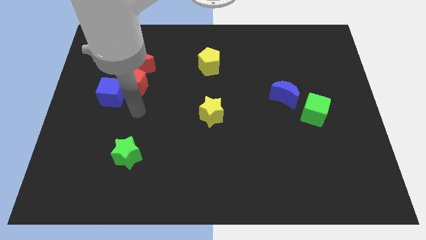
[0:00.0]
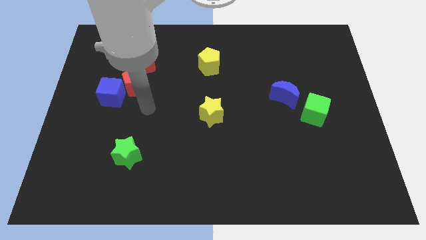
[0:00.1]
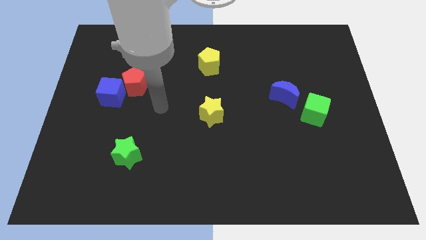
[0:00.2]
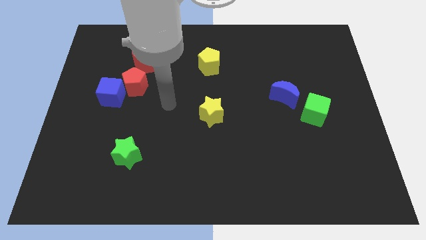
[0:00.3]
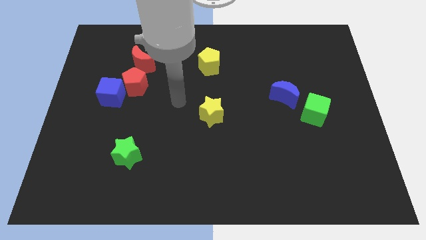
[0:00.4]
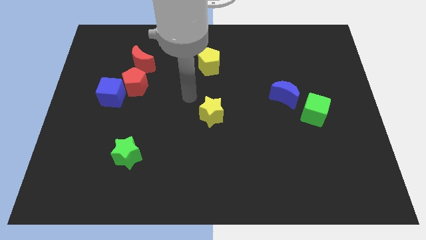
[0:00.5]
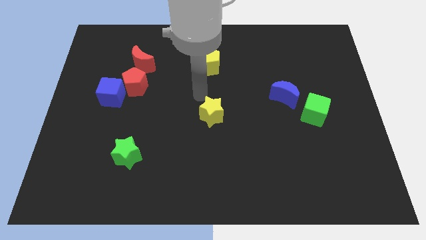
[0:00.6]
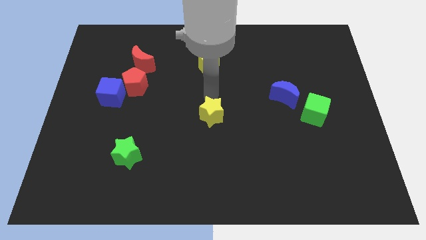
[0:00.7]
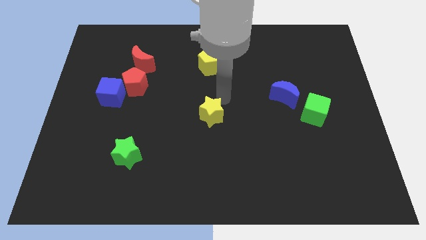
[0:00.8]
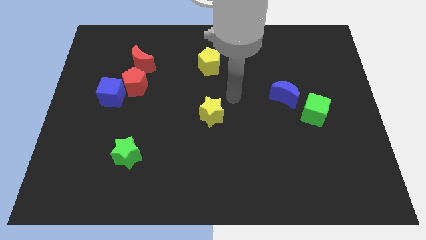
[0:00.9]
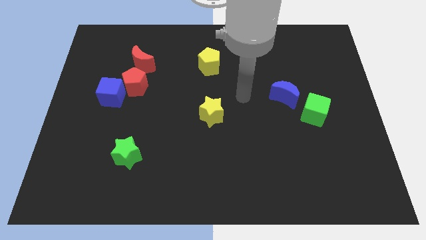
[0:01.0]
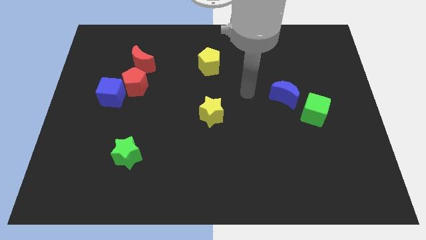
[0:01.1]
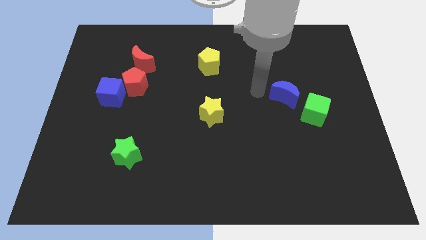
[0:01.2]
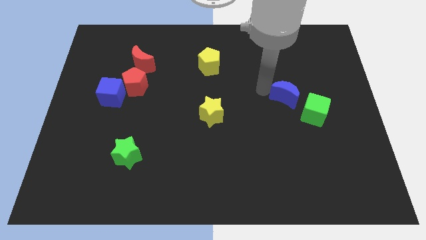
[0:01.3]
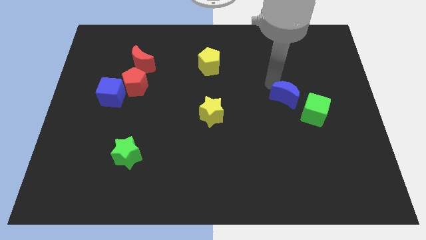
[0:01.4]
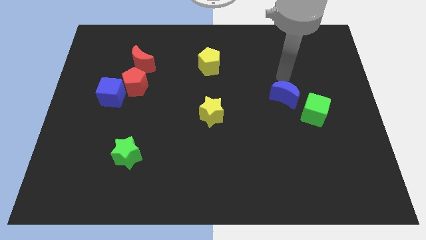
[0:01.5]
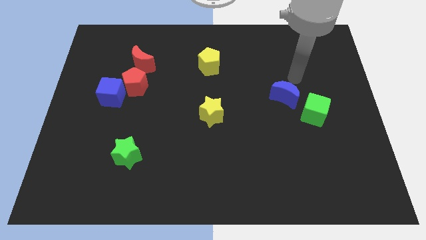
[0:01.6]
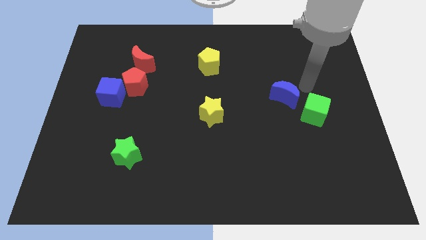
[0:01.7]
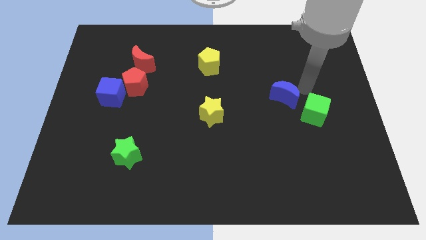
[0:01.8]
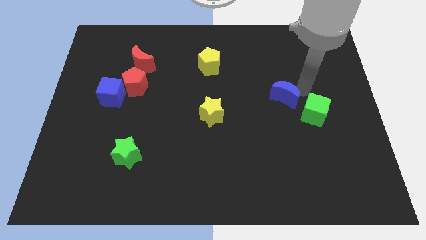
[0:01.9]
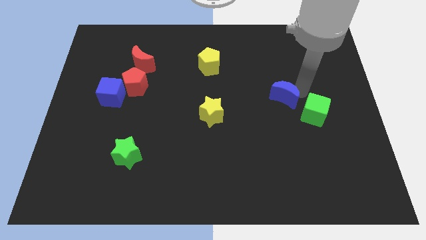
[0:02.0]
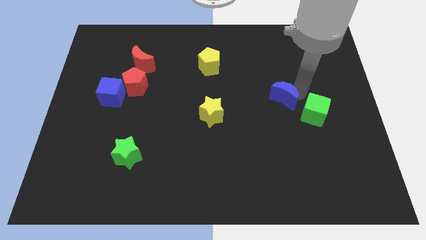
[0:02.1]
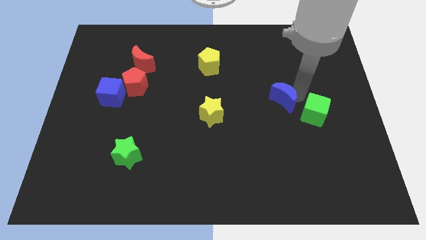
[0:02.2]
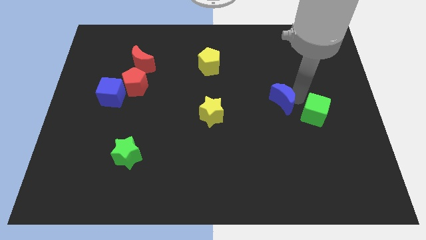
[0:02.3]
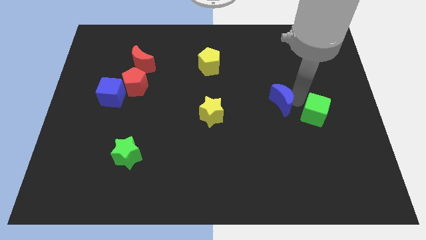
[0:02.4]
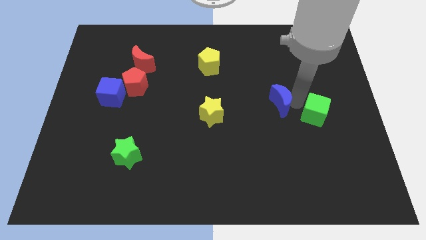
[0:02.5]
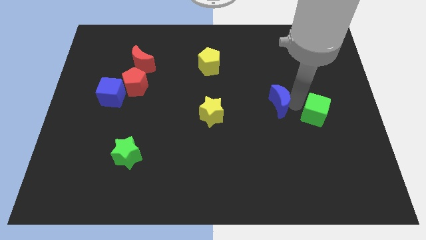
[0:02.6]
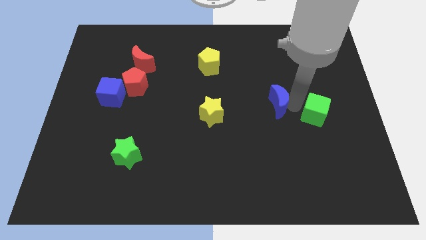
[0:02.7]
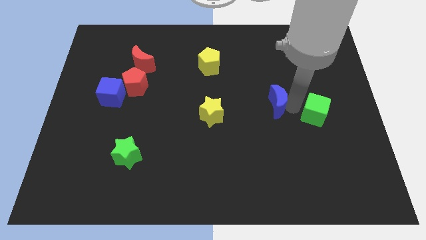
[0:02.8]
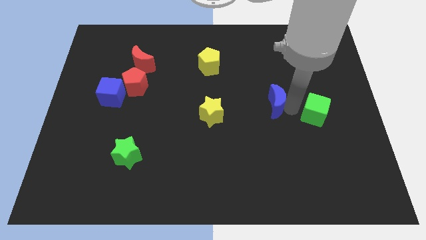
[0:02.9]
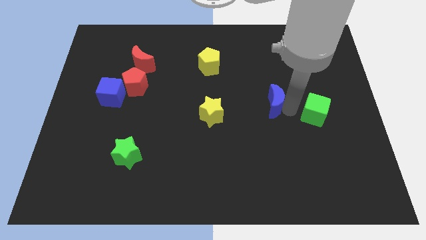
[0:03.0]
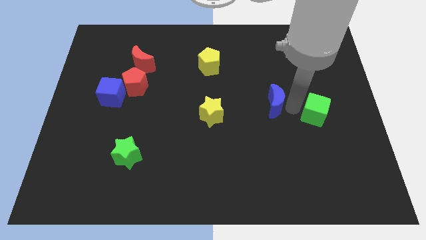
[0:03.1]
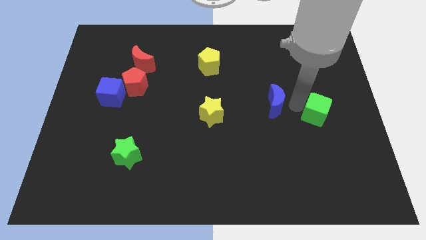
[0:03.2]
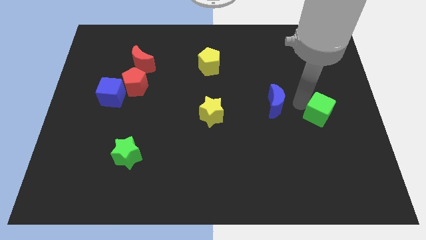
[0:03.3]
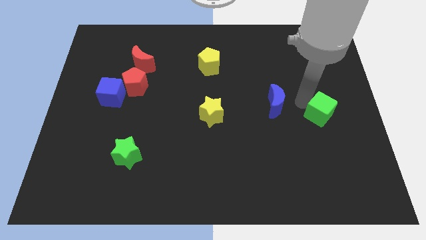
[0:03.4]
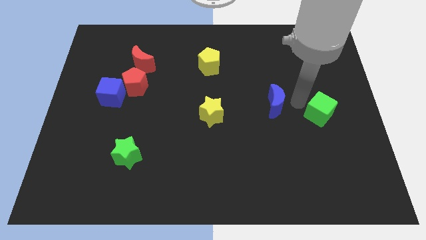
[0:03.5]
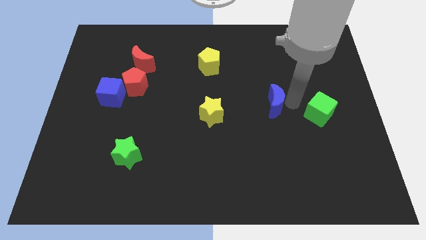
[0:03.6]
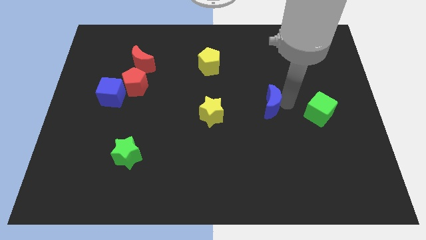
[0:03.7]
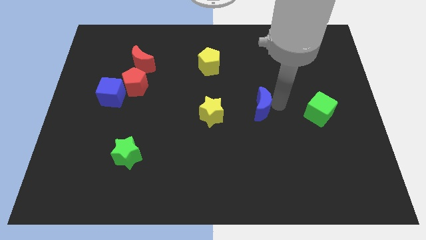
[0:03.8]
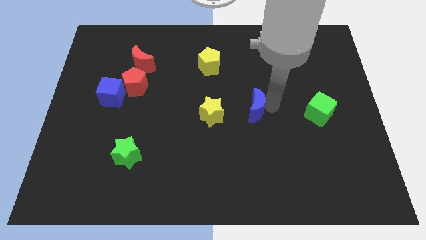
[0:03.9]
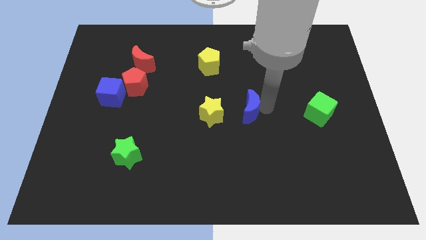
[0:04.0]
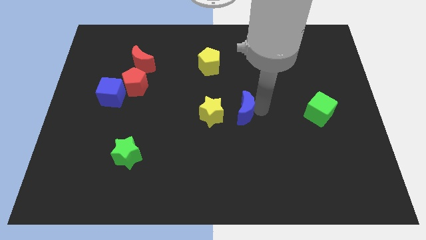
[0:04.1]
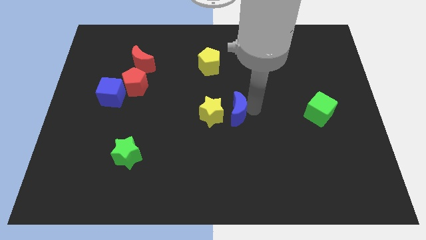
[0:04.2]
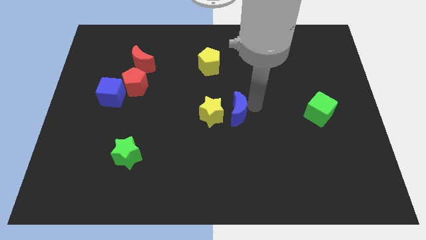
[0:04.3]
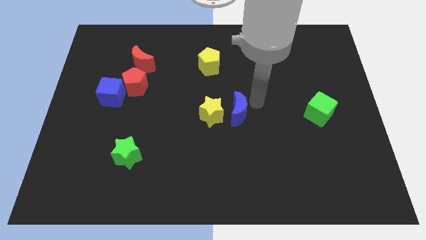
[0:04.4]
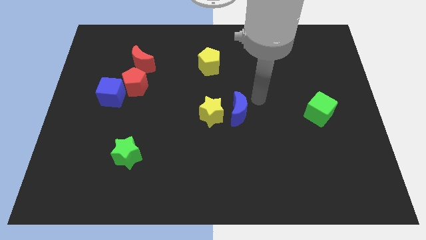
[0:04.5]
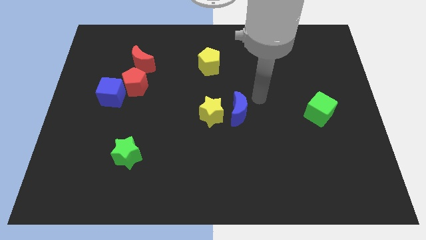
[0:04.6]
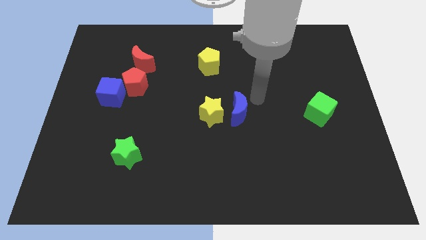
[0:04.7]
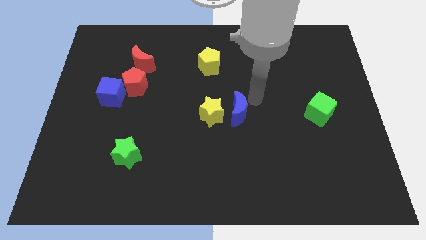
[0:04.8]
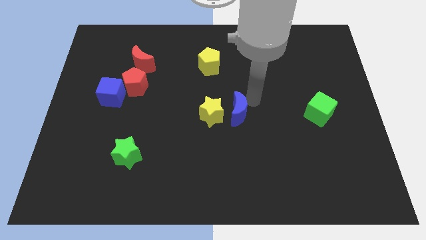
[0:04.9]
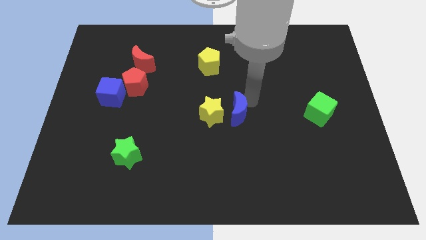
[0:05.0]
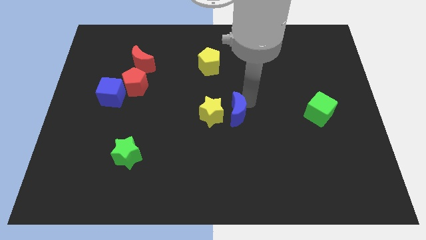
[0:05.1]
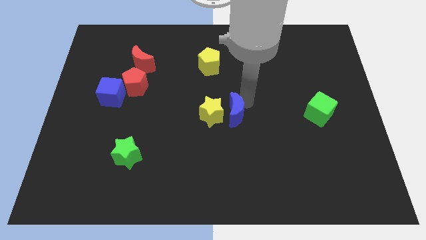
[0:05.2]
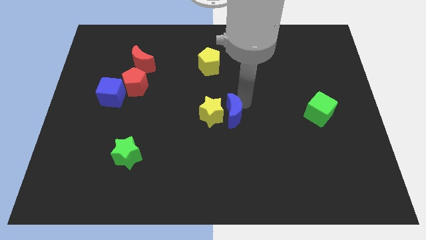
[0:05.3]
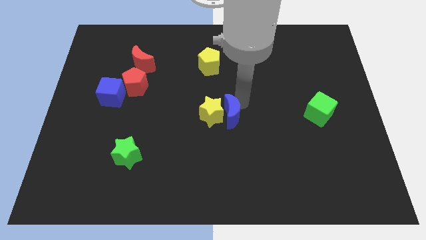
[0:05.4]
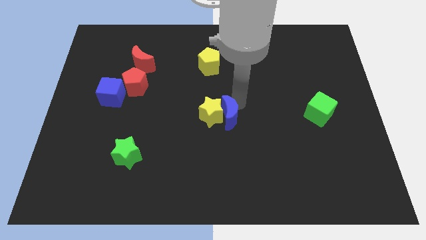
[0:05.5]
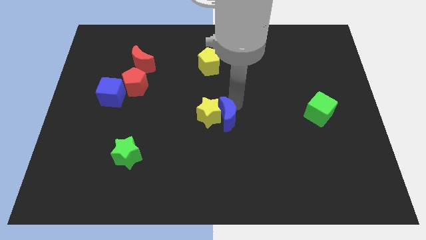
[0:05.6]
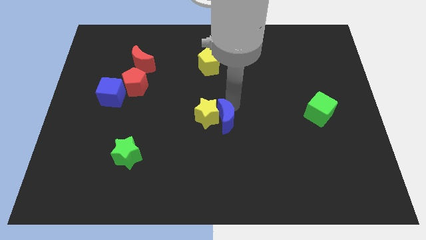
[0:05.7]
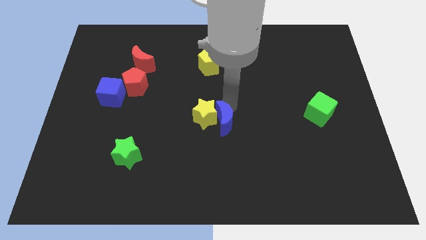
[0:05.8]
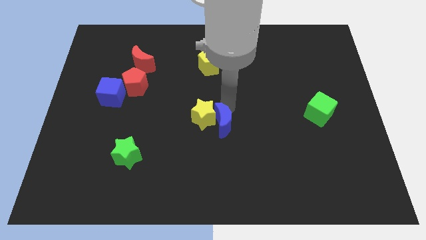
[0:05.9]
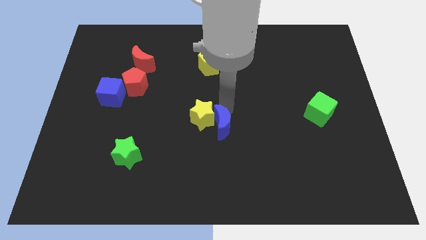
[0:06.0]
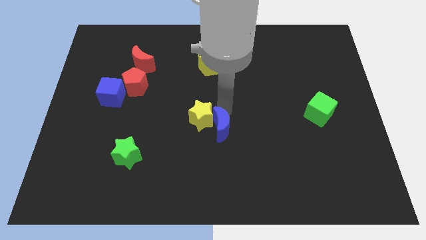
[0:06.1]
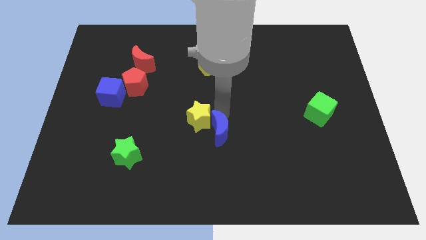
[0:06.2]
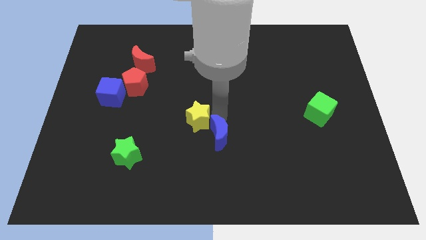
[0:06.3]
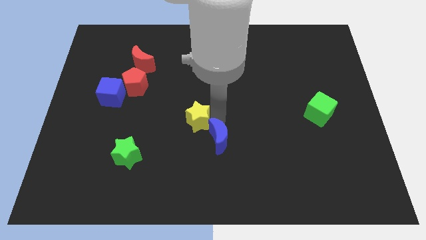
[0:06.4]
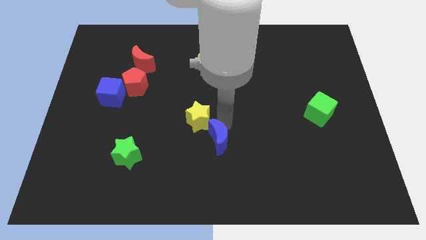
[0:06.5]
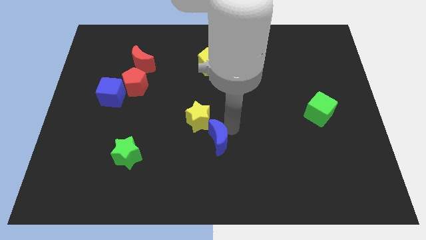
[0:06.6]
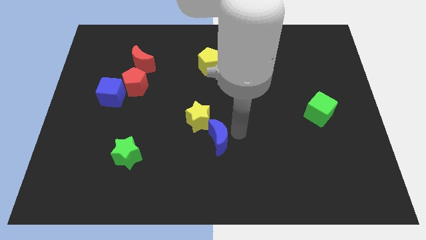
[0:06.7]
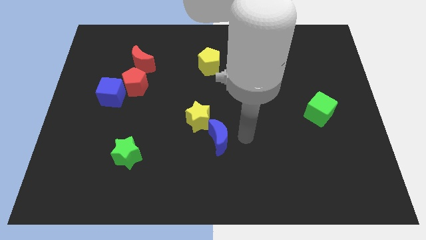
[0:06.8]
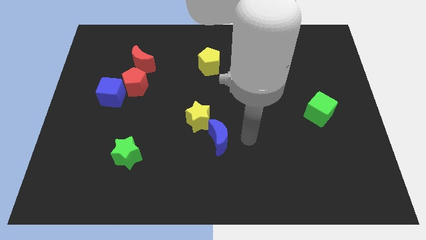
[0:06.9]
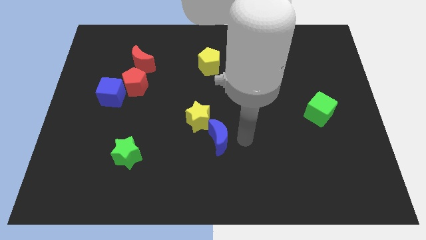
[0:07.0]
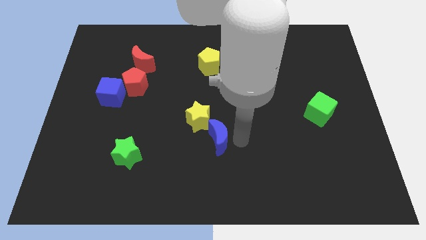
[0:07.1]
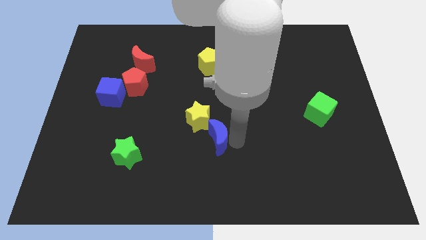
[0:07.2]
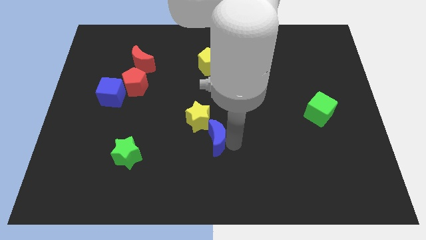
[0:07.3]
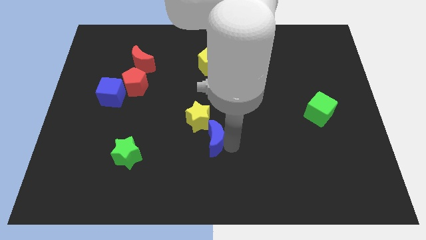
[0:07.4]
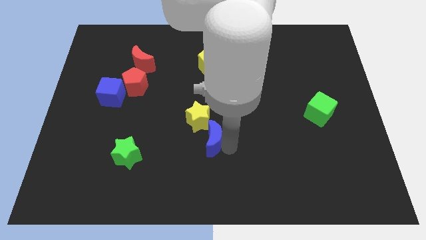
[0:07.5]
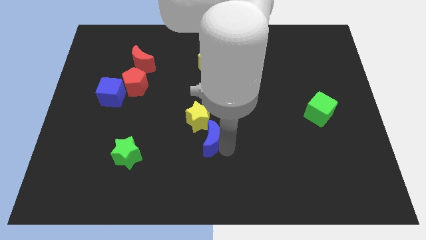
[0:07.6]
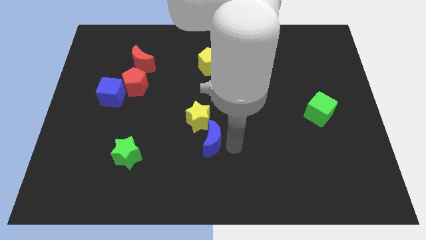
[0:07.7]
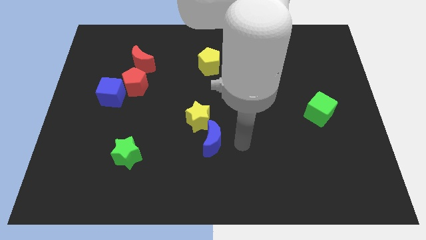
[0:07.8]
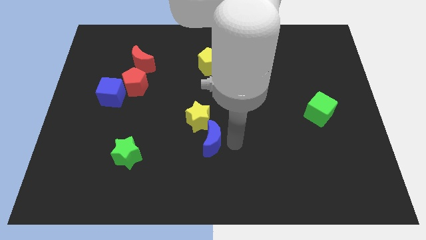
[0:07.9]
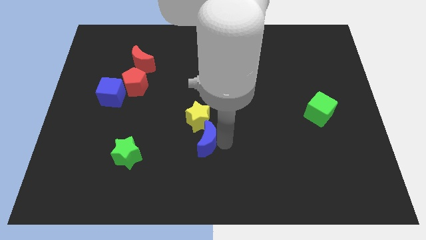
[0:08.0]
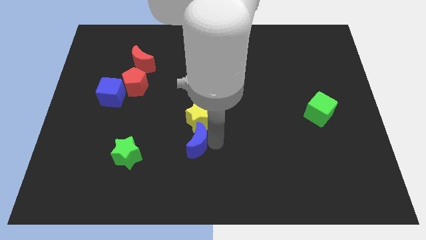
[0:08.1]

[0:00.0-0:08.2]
put the blue moon to the bottom left side of the yellow star
